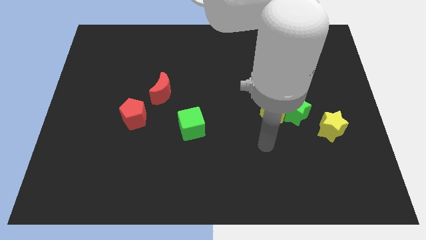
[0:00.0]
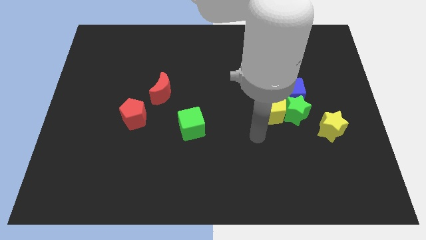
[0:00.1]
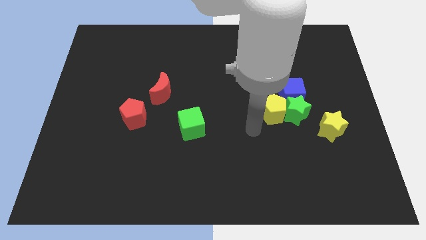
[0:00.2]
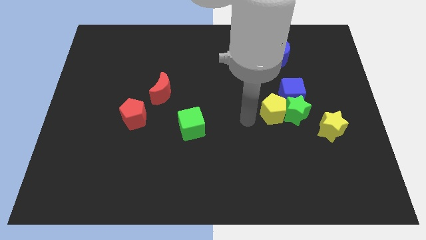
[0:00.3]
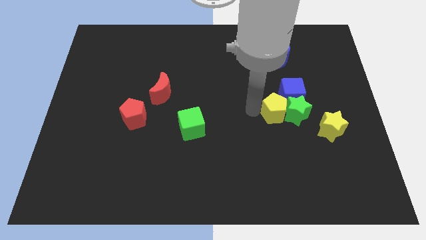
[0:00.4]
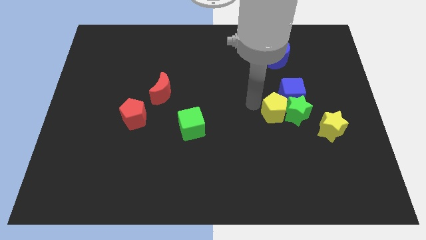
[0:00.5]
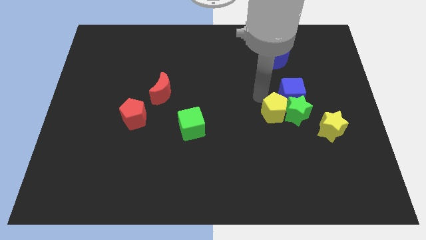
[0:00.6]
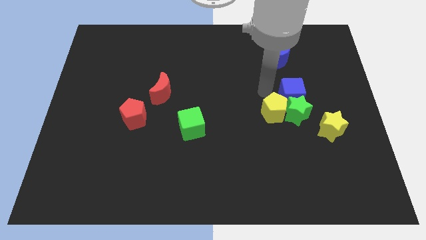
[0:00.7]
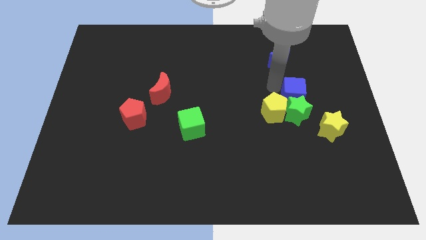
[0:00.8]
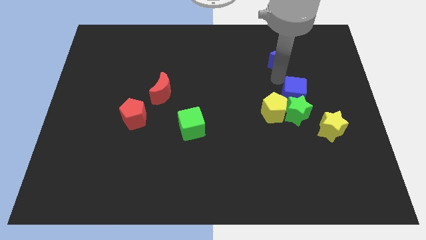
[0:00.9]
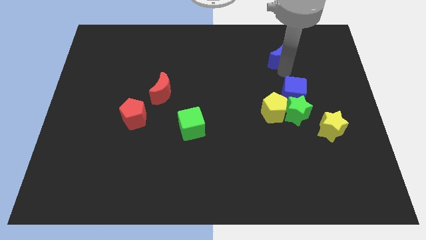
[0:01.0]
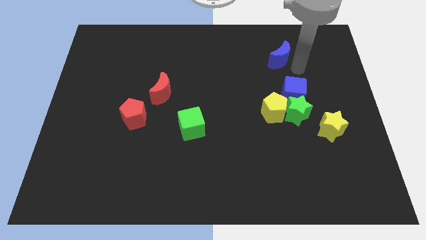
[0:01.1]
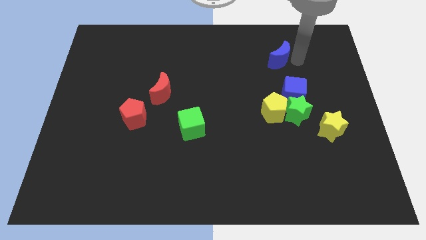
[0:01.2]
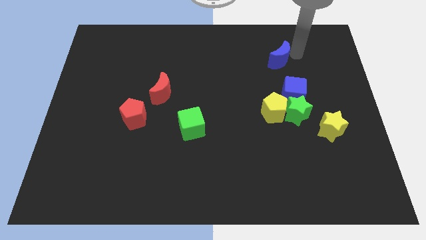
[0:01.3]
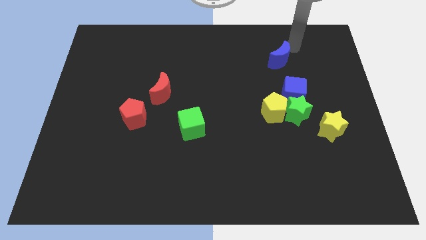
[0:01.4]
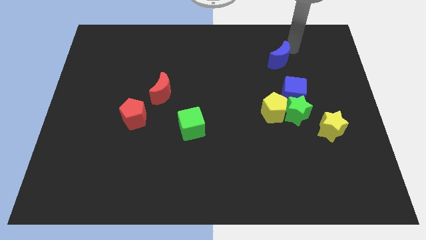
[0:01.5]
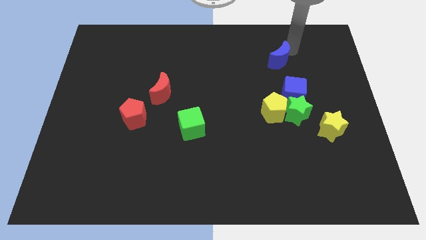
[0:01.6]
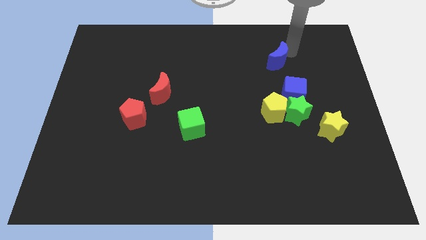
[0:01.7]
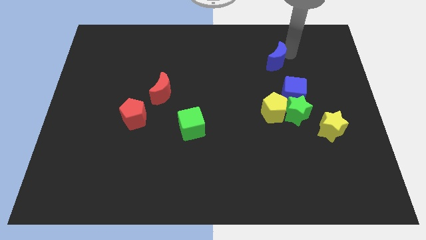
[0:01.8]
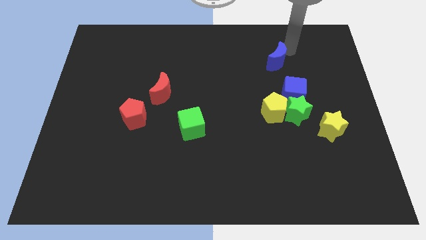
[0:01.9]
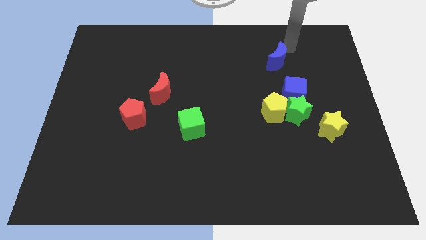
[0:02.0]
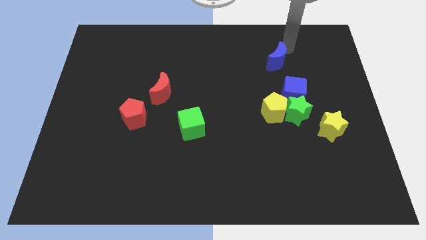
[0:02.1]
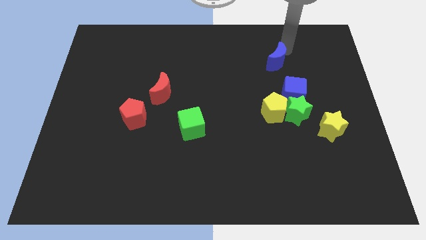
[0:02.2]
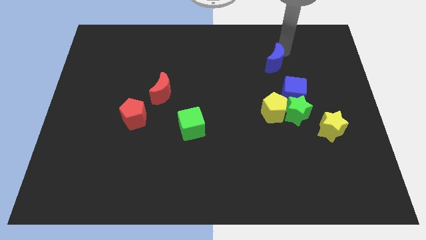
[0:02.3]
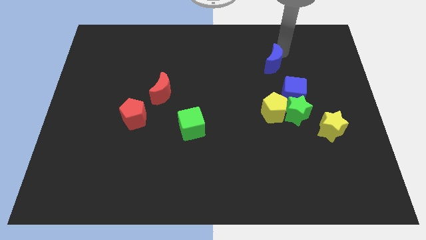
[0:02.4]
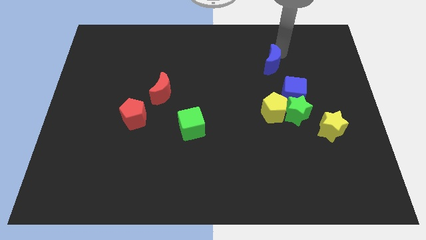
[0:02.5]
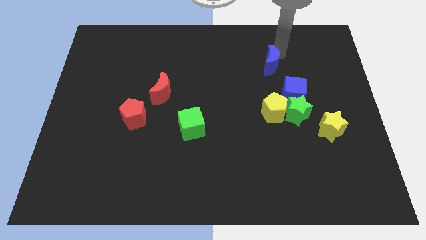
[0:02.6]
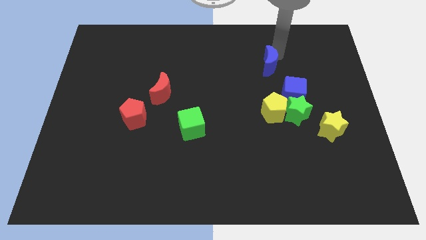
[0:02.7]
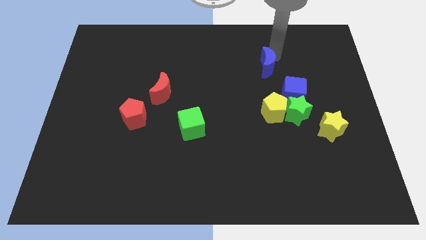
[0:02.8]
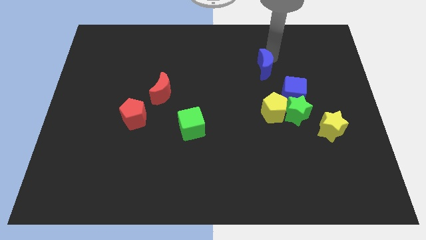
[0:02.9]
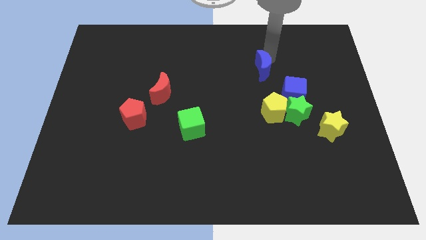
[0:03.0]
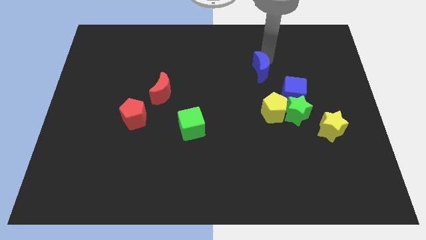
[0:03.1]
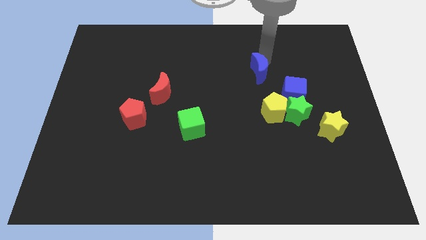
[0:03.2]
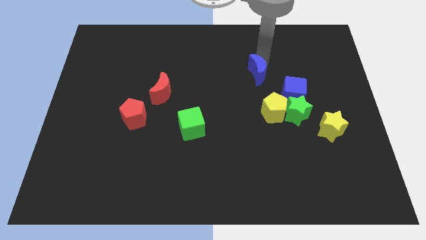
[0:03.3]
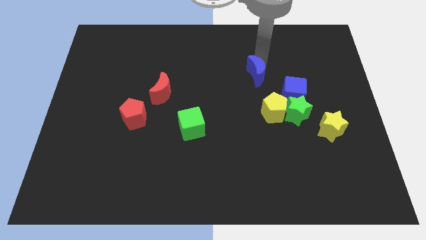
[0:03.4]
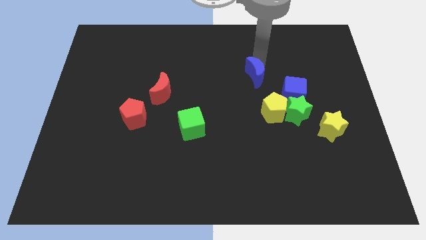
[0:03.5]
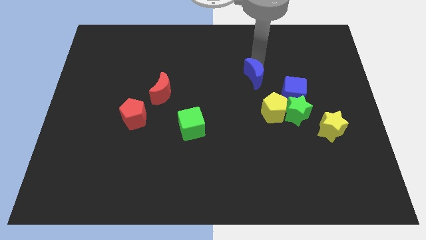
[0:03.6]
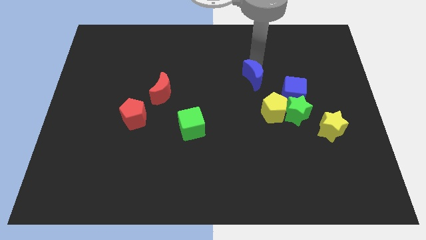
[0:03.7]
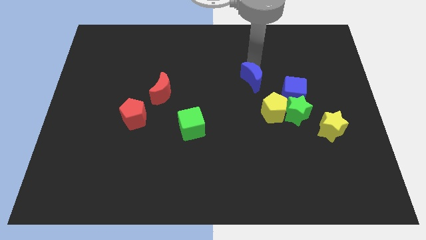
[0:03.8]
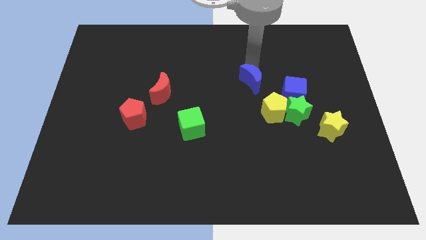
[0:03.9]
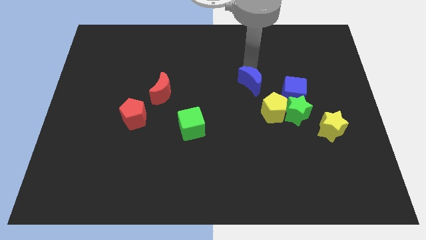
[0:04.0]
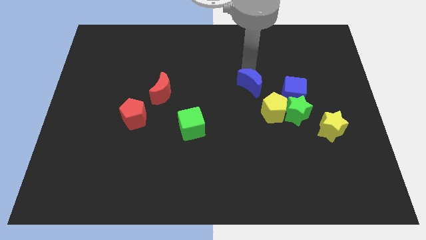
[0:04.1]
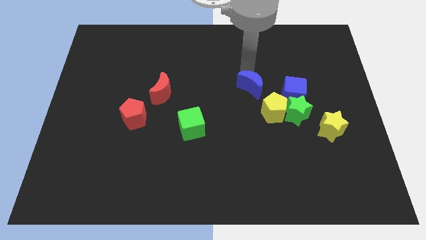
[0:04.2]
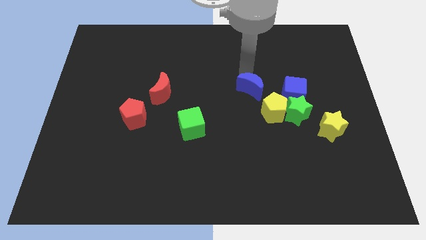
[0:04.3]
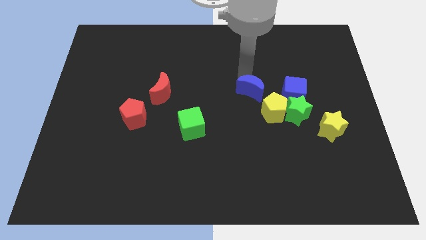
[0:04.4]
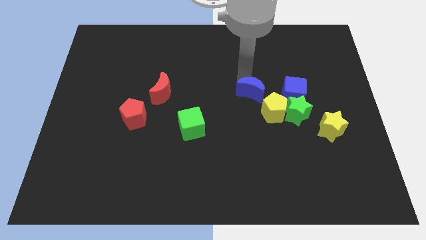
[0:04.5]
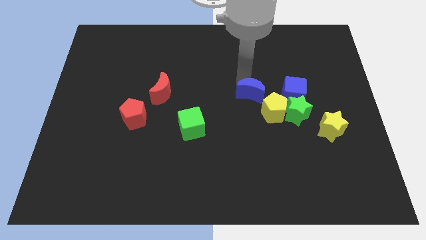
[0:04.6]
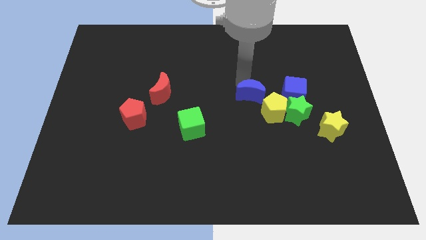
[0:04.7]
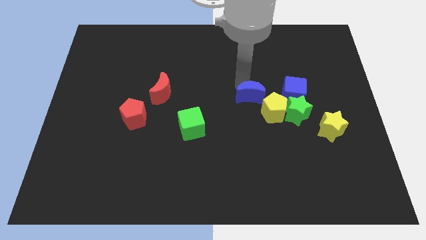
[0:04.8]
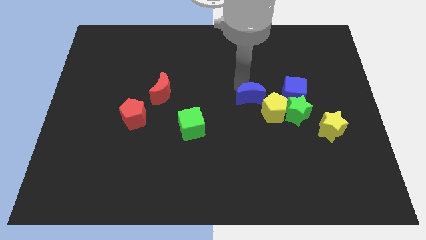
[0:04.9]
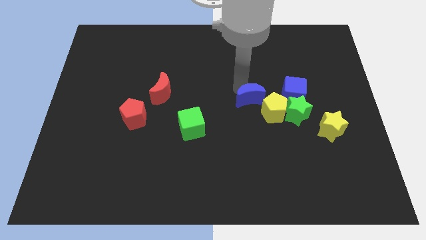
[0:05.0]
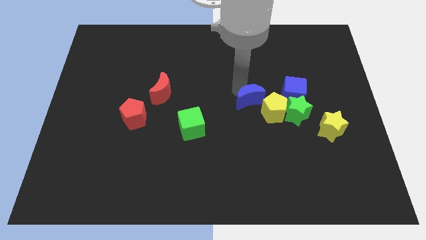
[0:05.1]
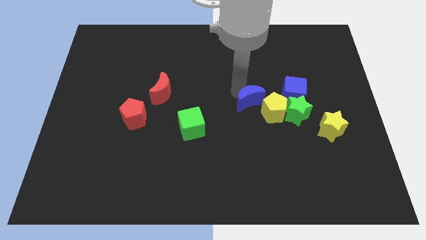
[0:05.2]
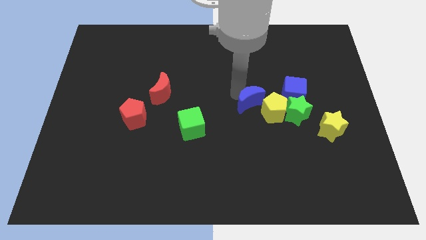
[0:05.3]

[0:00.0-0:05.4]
put the blue moon to the yellow pentagon

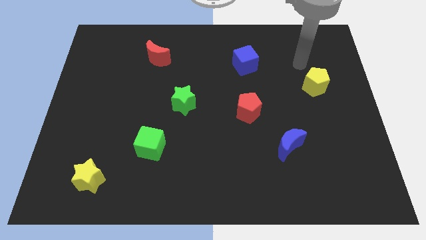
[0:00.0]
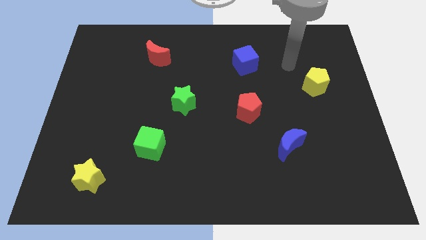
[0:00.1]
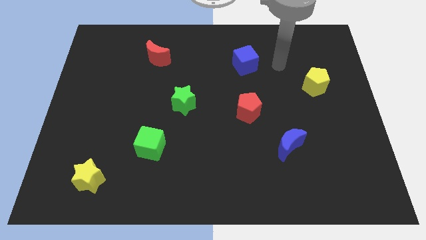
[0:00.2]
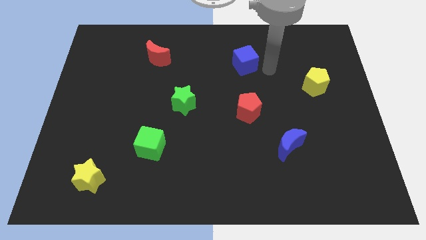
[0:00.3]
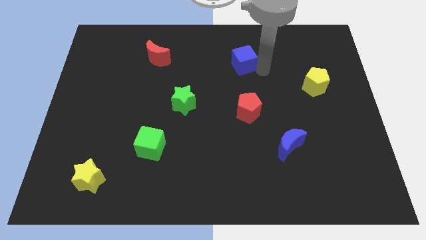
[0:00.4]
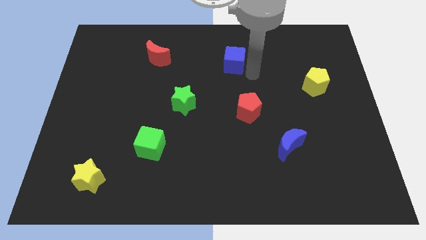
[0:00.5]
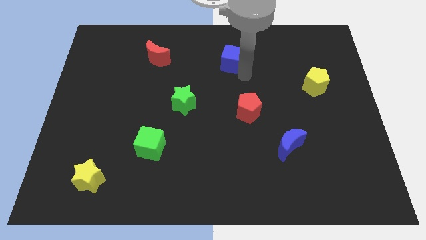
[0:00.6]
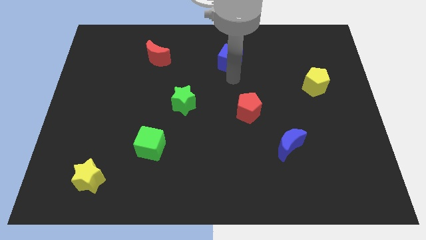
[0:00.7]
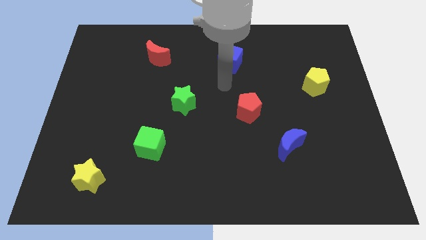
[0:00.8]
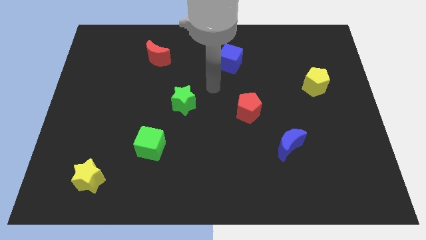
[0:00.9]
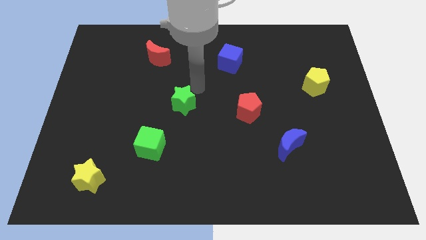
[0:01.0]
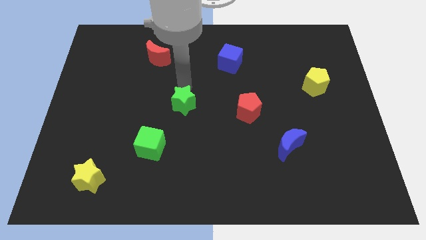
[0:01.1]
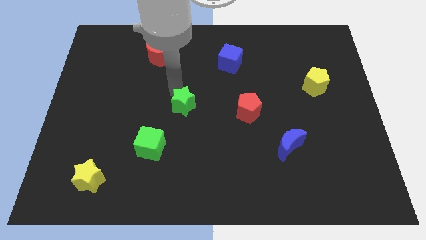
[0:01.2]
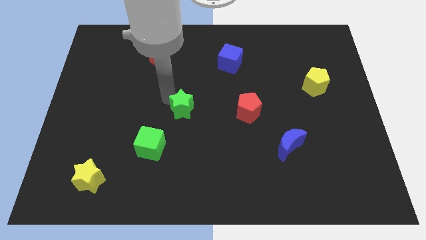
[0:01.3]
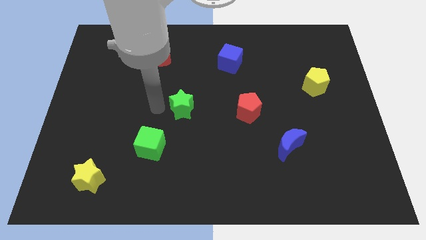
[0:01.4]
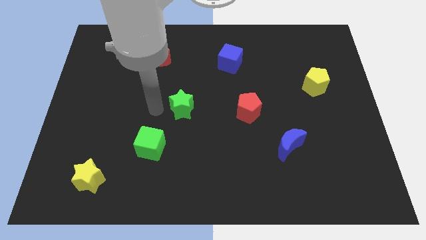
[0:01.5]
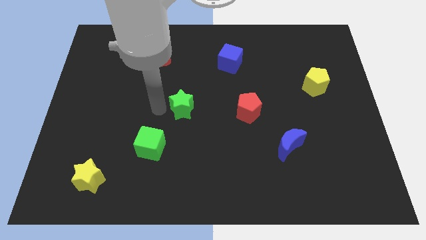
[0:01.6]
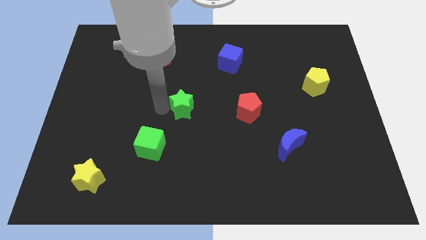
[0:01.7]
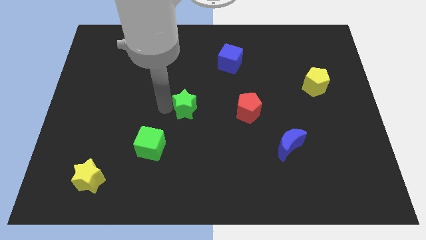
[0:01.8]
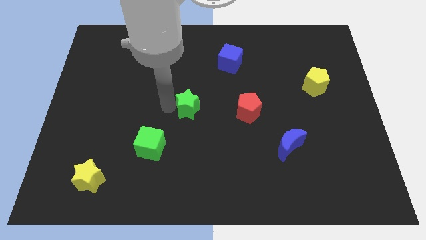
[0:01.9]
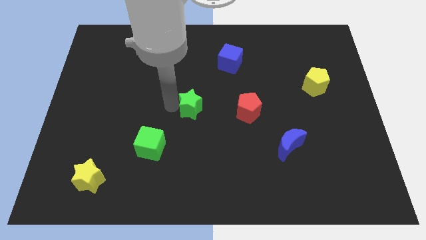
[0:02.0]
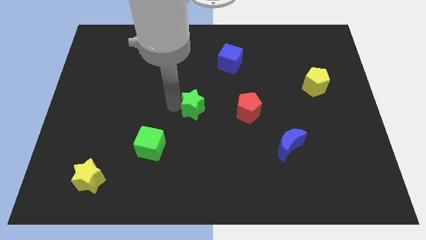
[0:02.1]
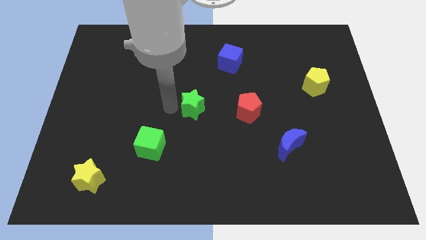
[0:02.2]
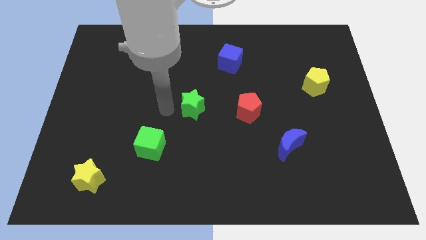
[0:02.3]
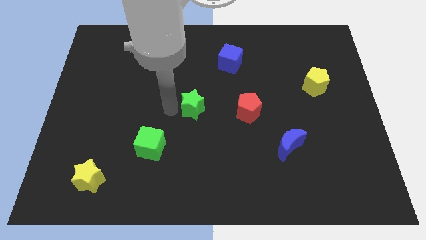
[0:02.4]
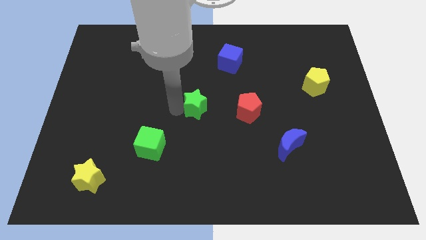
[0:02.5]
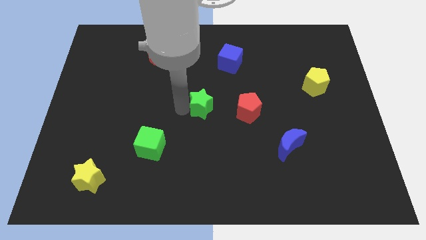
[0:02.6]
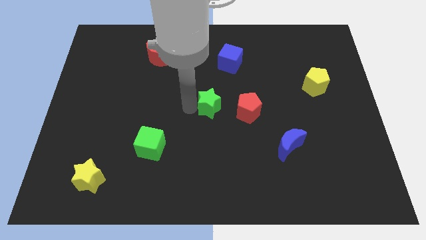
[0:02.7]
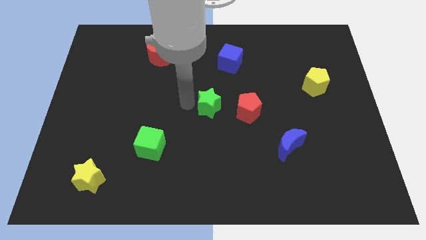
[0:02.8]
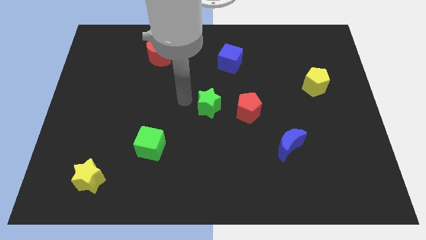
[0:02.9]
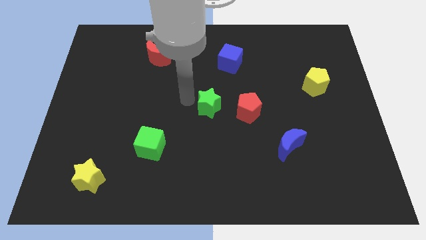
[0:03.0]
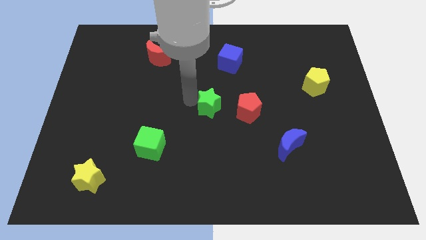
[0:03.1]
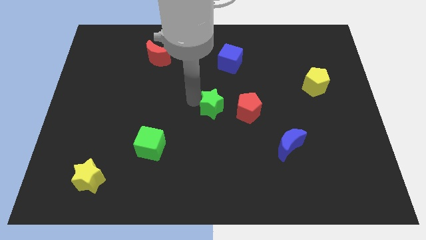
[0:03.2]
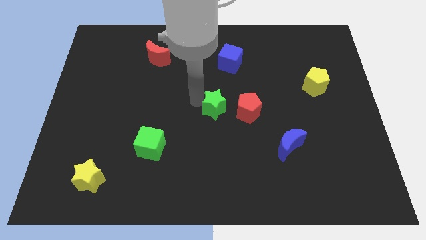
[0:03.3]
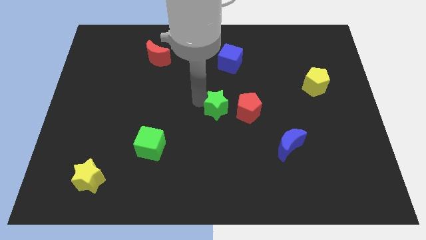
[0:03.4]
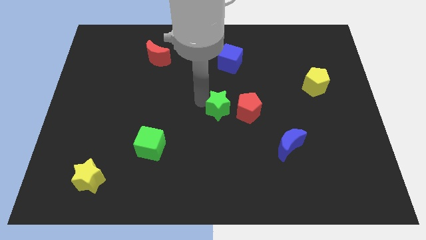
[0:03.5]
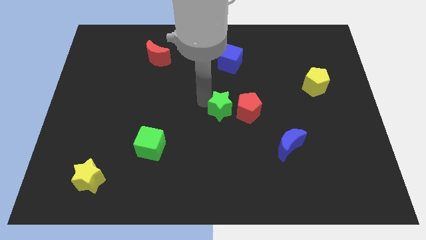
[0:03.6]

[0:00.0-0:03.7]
push the green star close to the red pentagon
